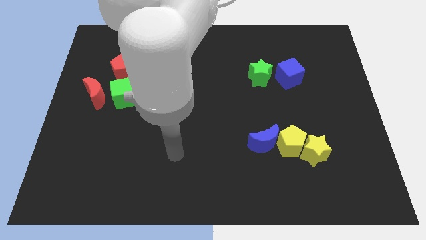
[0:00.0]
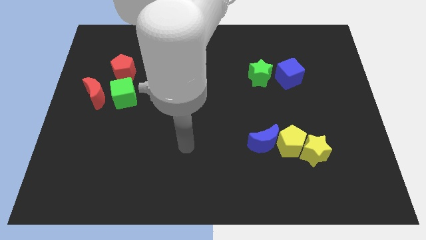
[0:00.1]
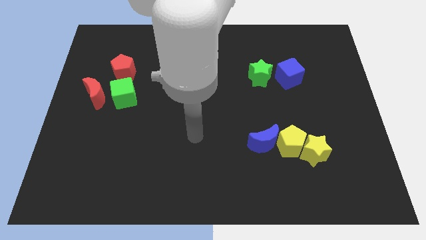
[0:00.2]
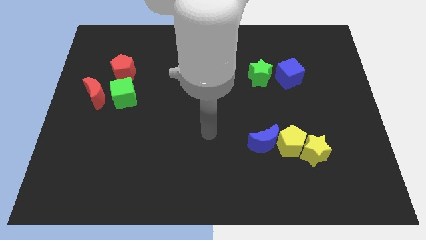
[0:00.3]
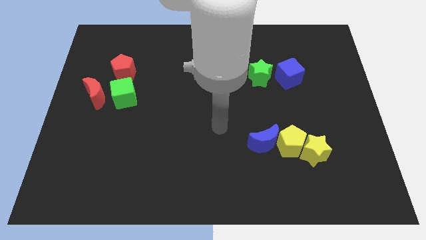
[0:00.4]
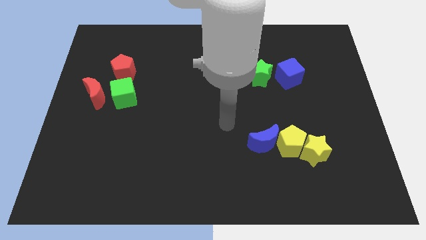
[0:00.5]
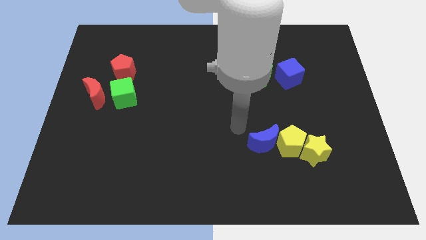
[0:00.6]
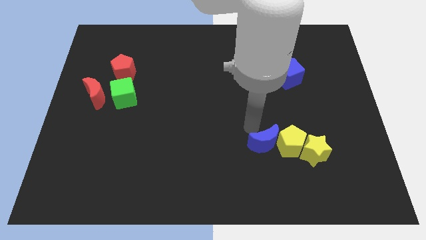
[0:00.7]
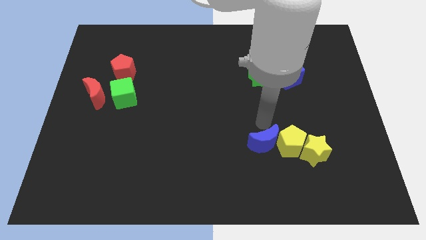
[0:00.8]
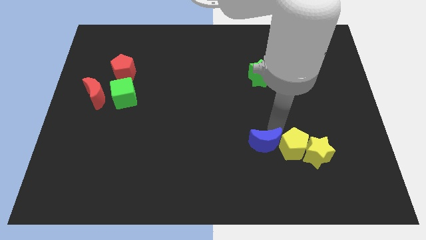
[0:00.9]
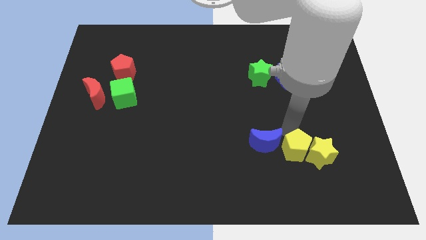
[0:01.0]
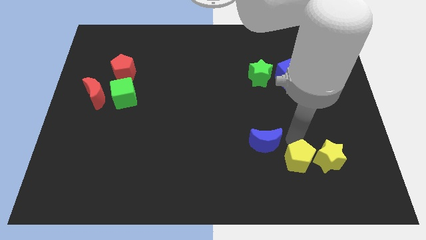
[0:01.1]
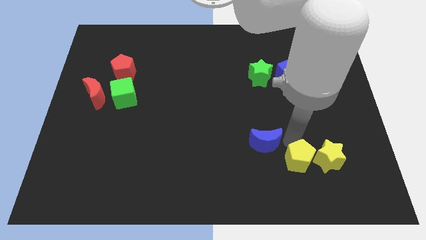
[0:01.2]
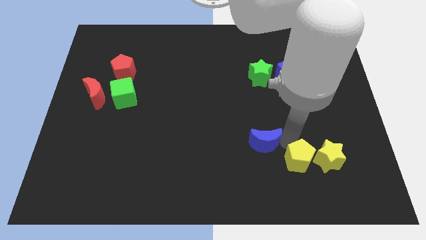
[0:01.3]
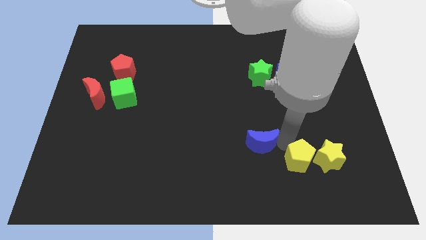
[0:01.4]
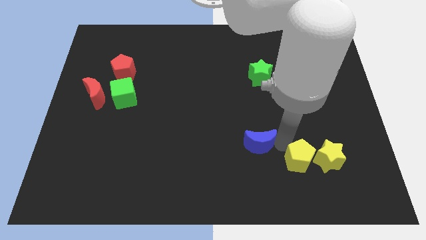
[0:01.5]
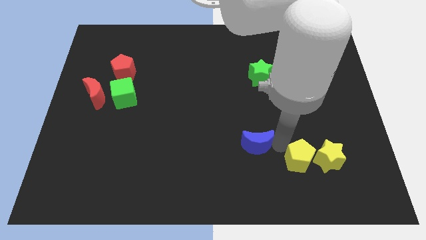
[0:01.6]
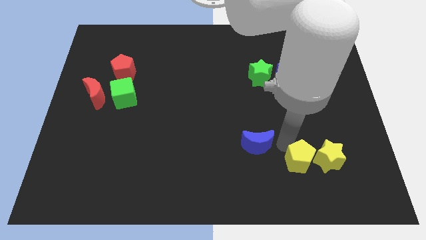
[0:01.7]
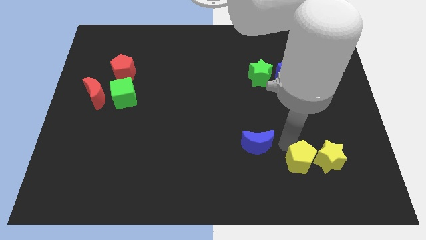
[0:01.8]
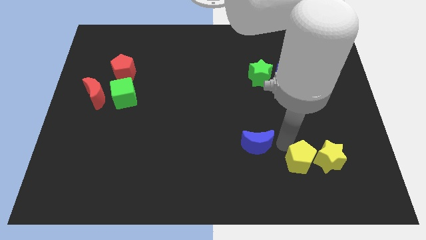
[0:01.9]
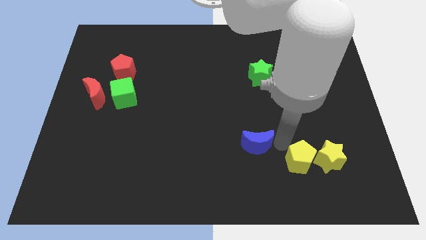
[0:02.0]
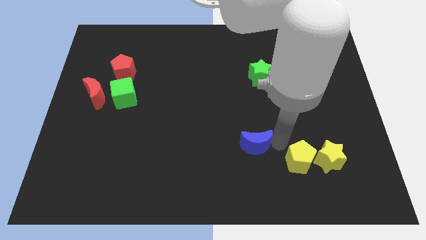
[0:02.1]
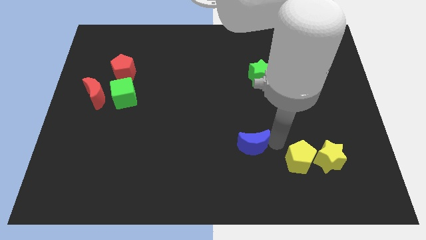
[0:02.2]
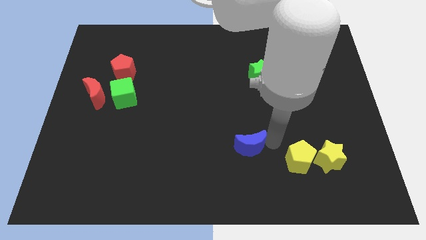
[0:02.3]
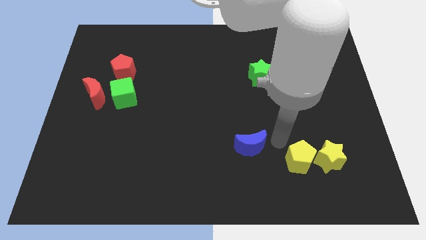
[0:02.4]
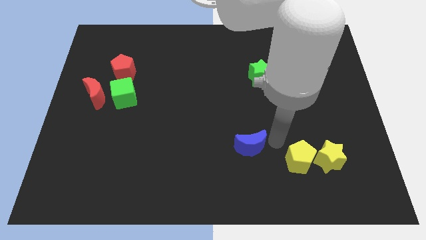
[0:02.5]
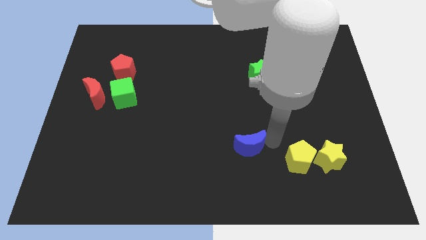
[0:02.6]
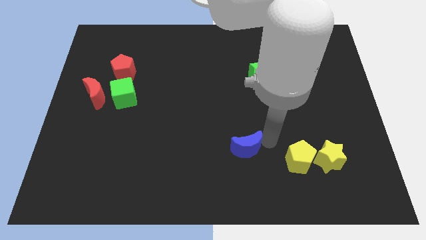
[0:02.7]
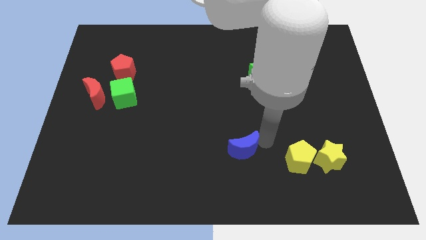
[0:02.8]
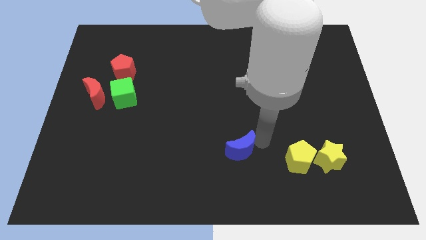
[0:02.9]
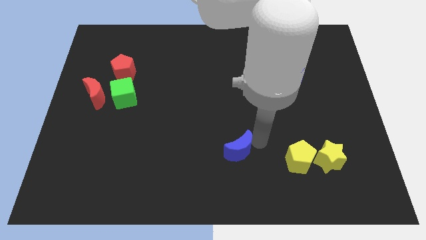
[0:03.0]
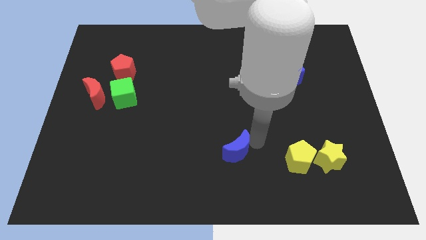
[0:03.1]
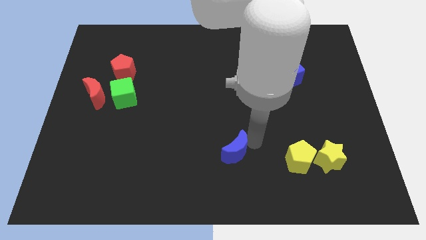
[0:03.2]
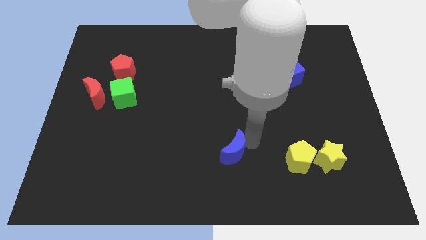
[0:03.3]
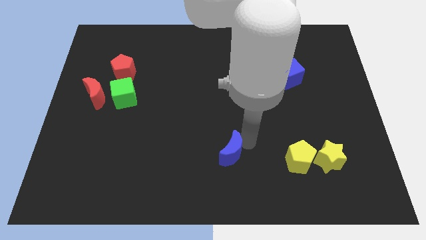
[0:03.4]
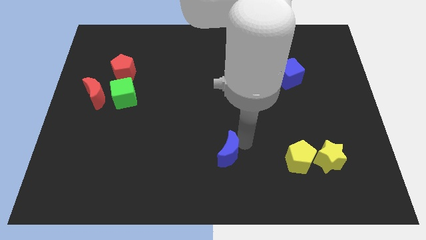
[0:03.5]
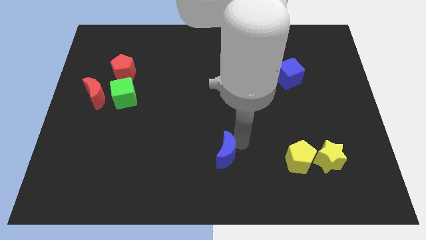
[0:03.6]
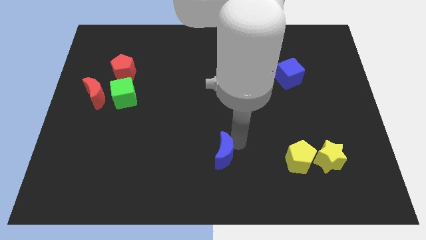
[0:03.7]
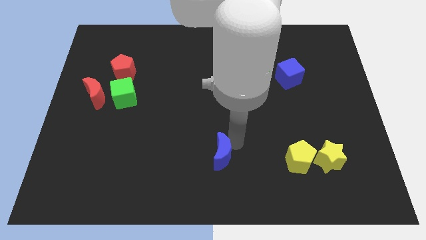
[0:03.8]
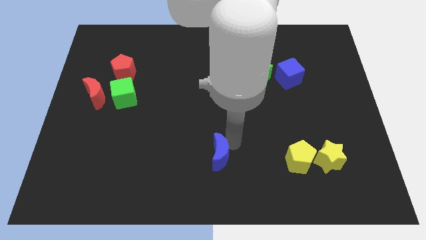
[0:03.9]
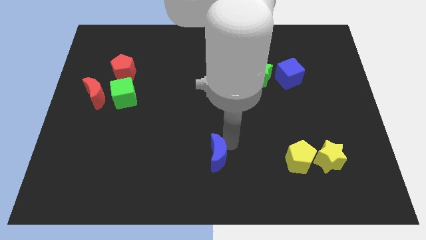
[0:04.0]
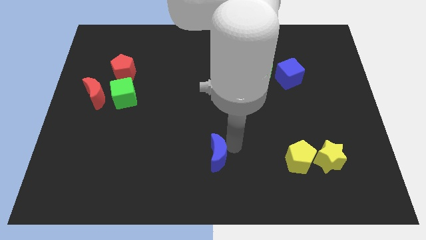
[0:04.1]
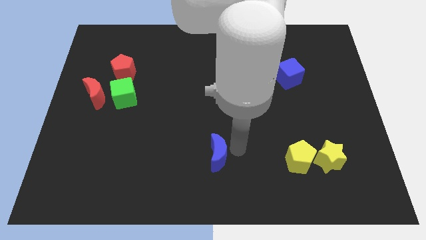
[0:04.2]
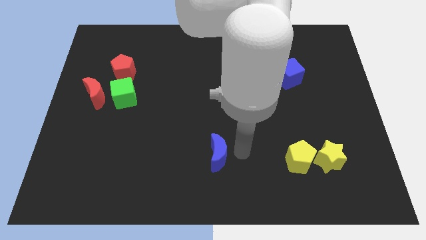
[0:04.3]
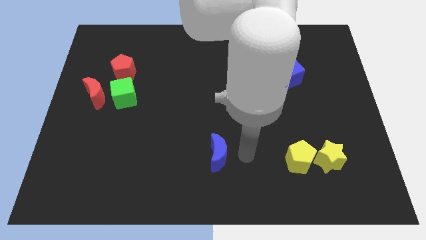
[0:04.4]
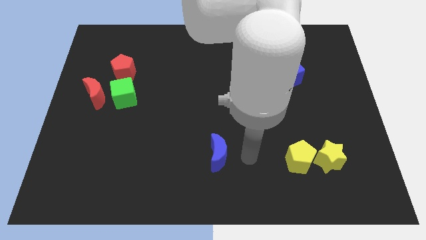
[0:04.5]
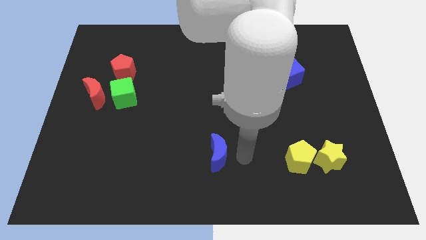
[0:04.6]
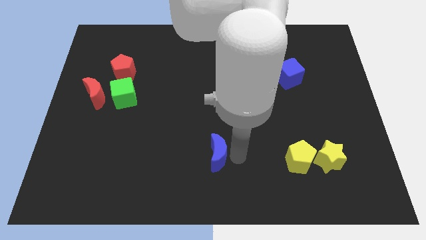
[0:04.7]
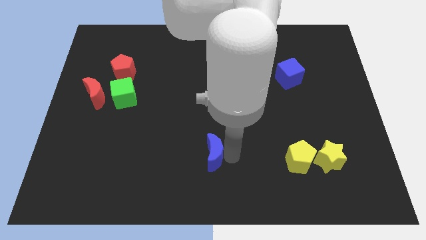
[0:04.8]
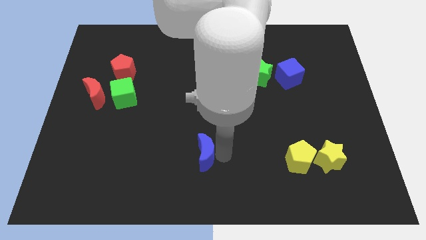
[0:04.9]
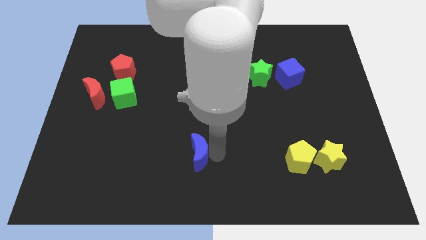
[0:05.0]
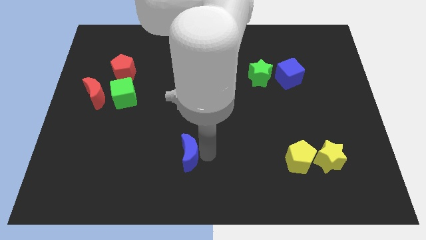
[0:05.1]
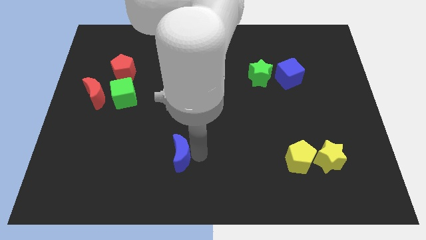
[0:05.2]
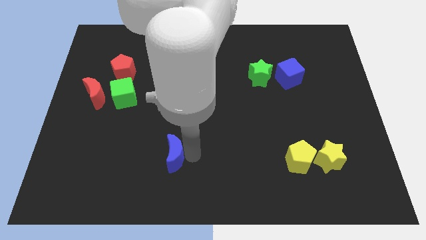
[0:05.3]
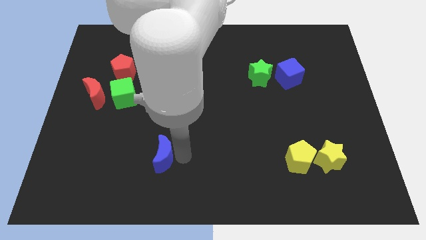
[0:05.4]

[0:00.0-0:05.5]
move the blue moon to the left

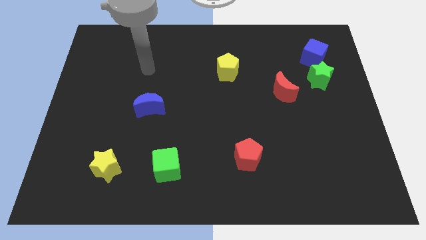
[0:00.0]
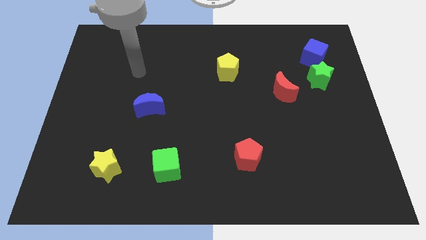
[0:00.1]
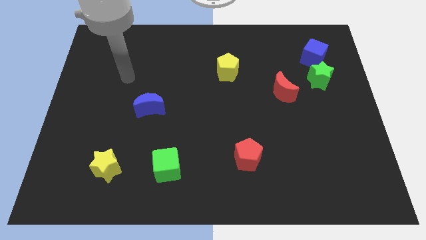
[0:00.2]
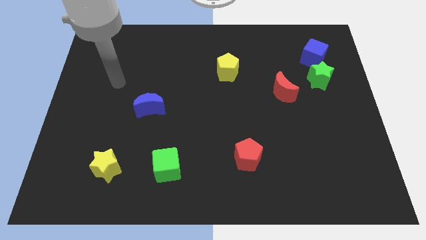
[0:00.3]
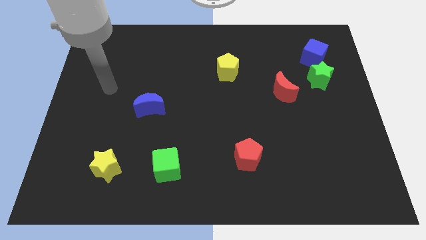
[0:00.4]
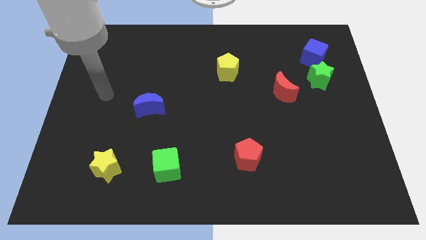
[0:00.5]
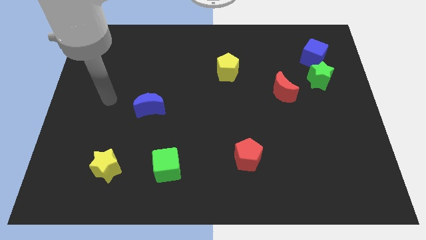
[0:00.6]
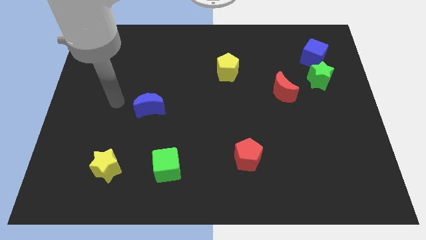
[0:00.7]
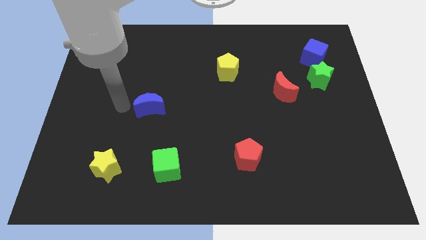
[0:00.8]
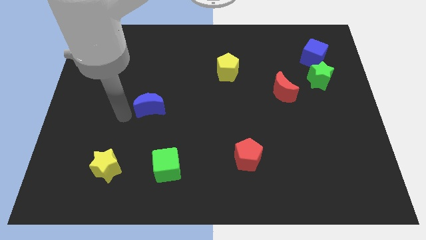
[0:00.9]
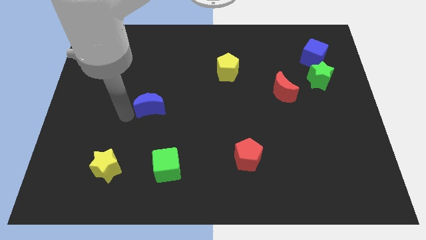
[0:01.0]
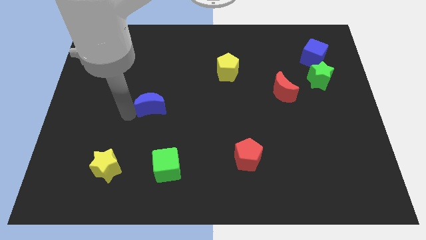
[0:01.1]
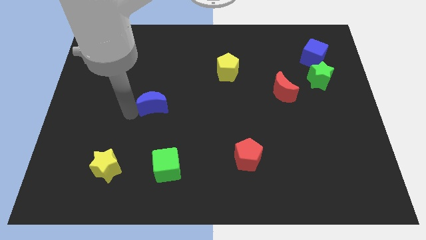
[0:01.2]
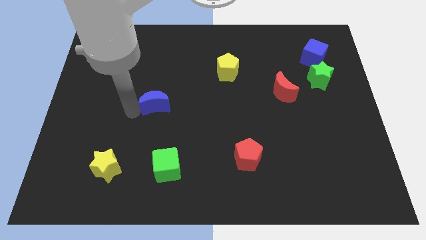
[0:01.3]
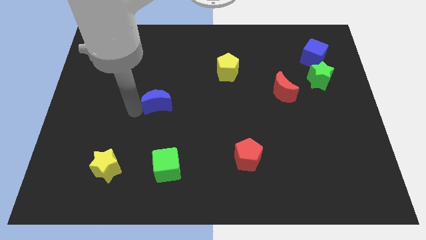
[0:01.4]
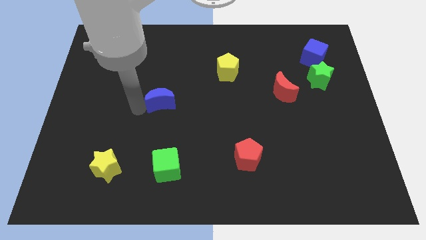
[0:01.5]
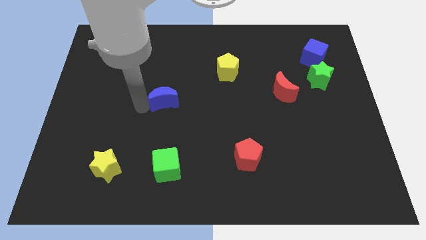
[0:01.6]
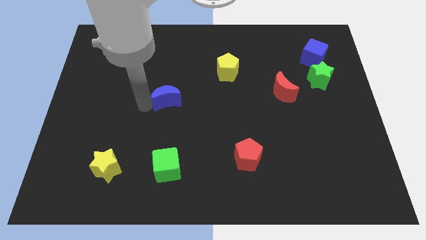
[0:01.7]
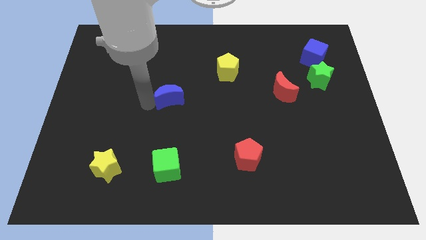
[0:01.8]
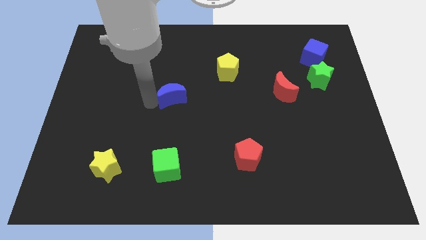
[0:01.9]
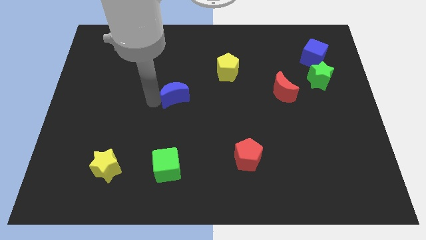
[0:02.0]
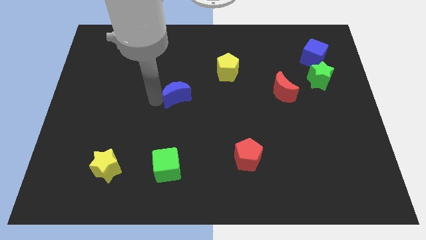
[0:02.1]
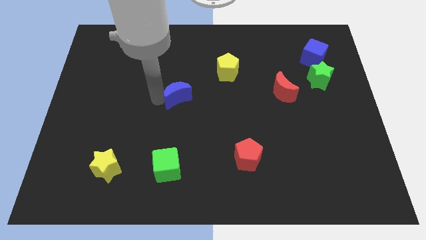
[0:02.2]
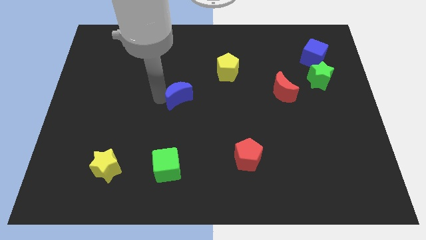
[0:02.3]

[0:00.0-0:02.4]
move the blue moon somewhat upwards and right diagonally
